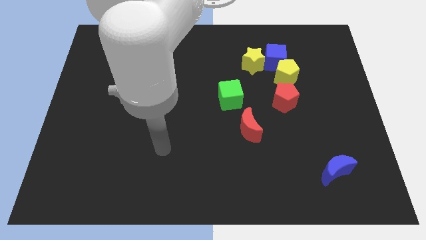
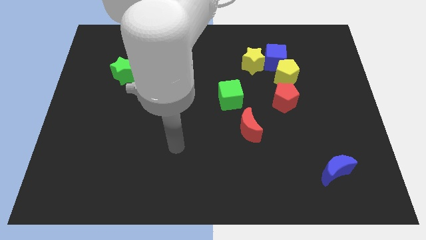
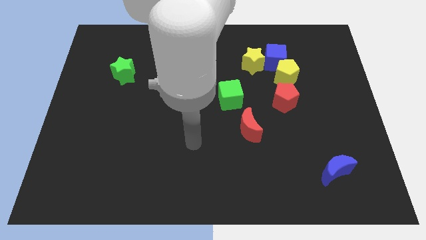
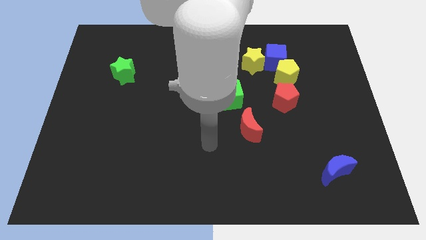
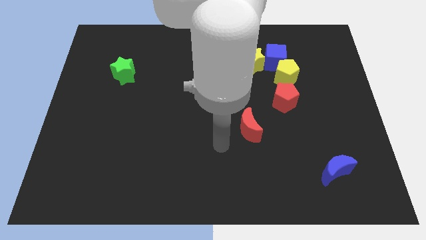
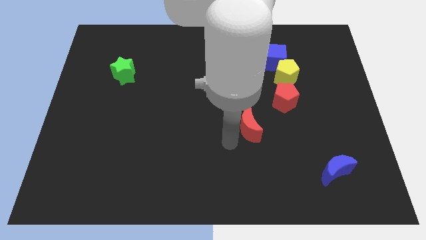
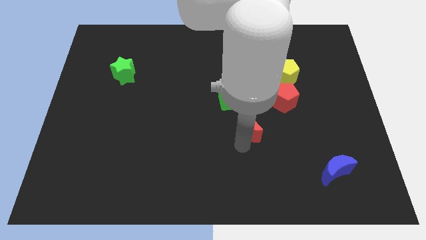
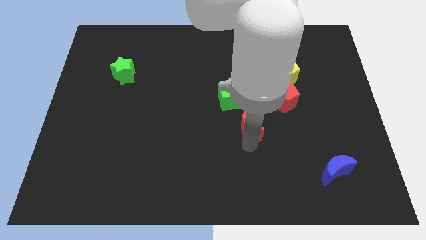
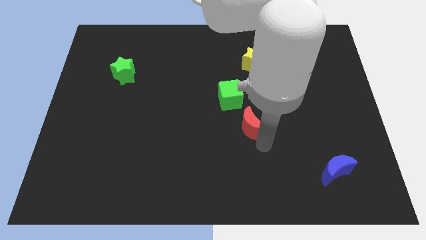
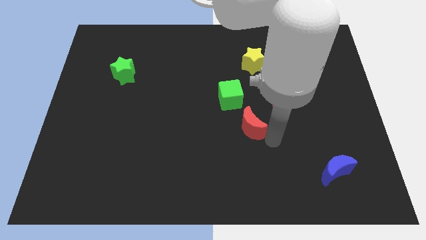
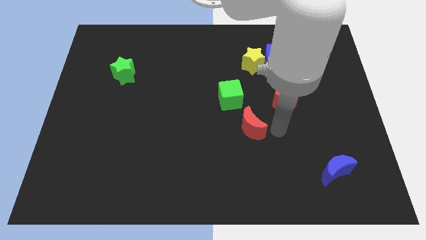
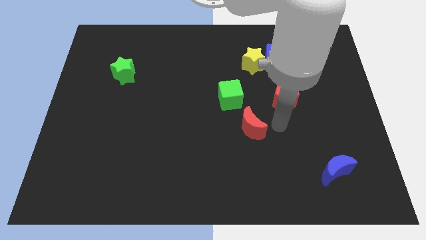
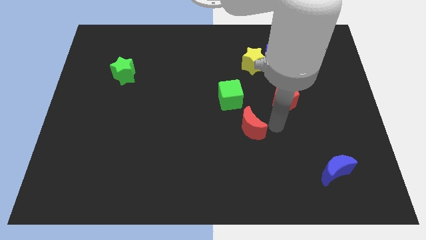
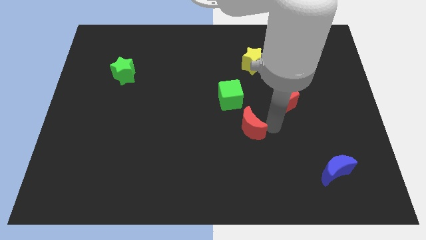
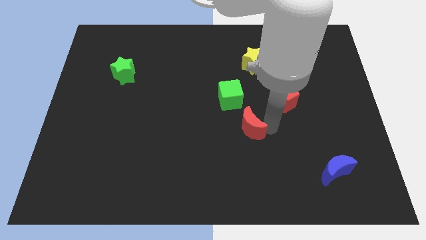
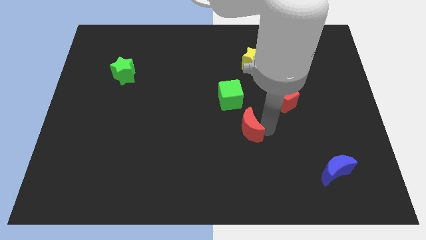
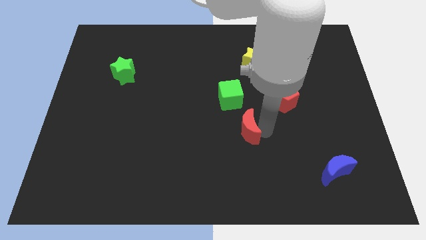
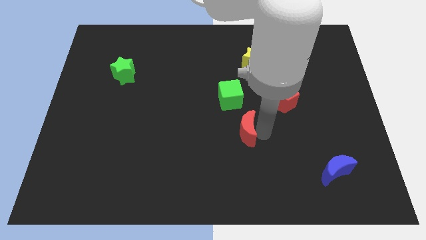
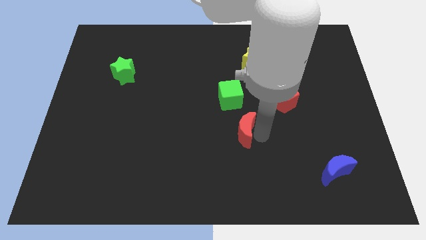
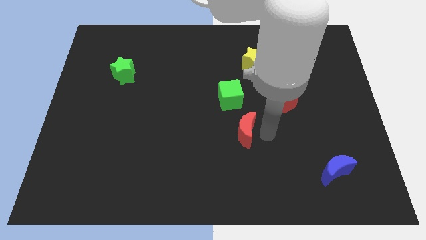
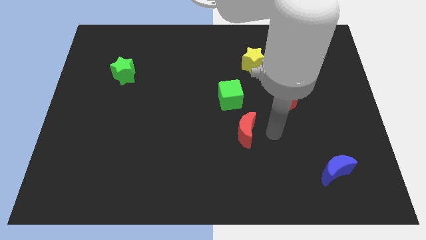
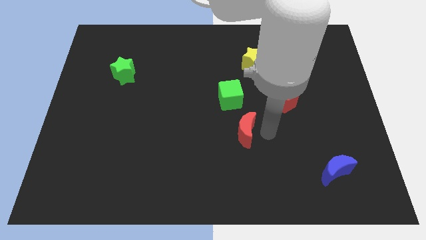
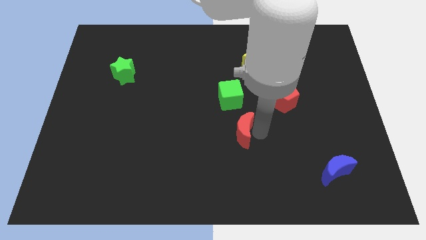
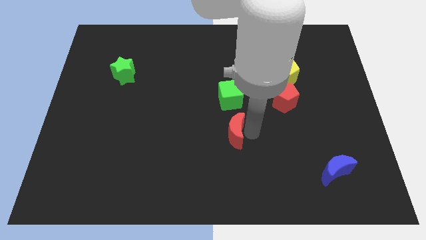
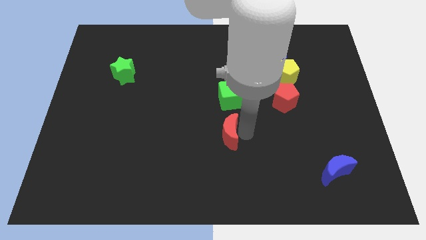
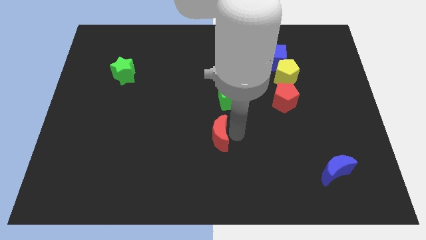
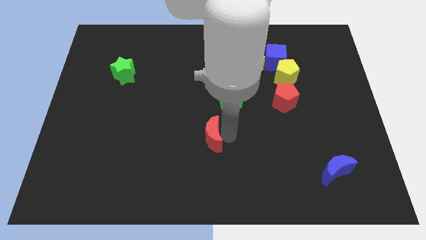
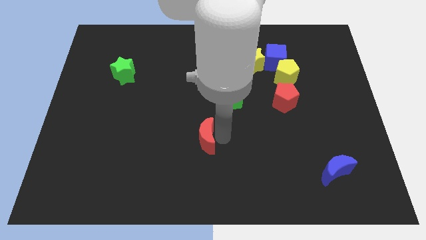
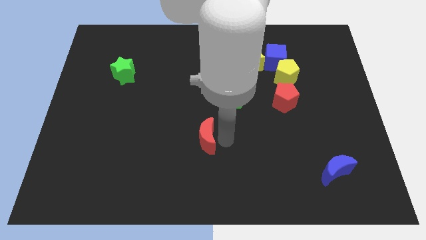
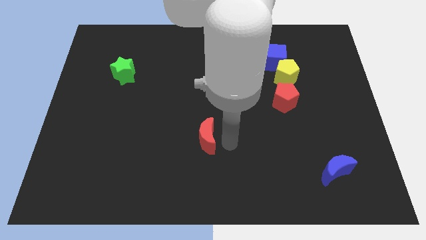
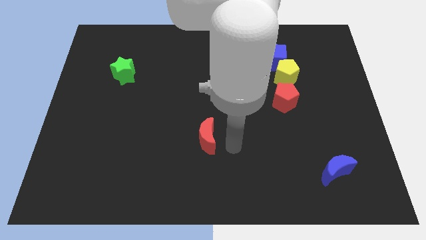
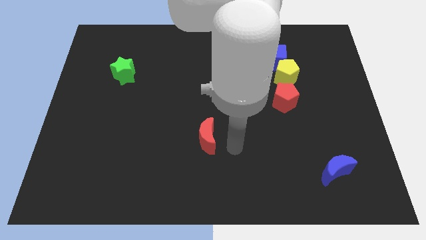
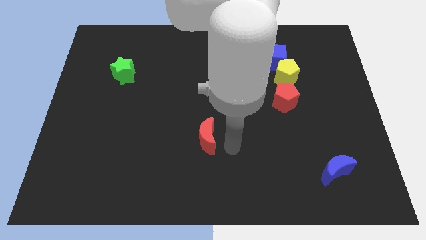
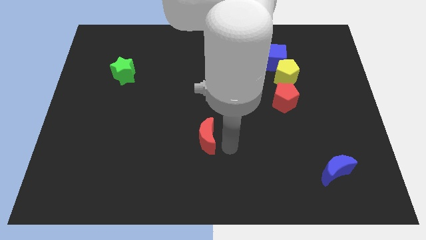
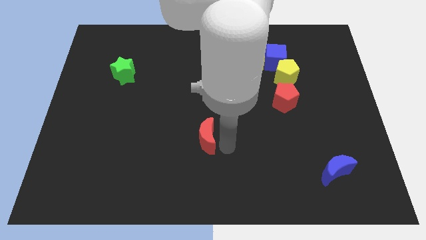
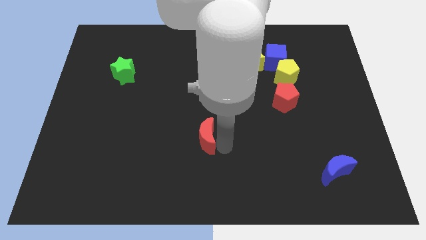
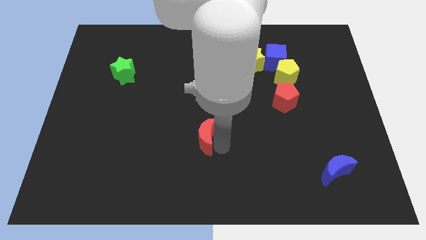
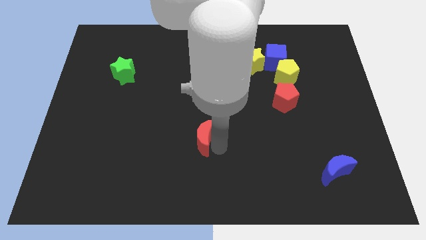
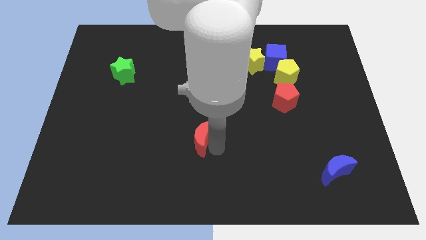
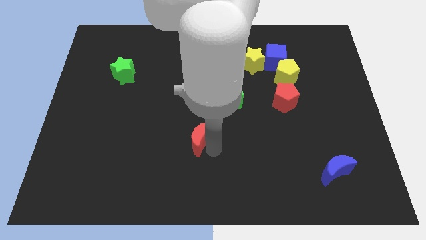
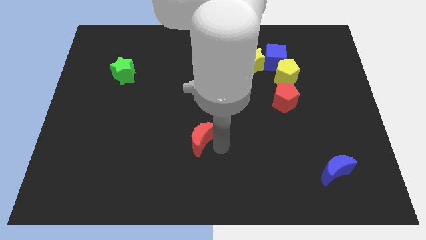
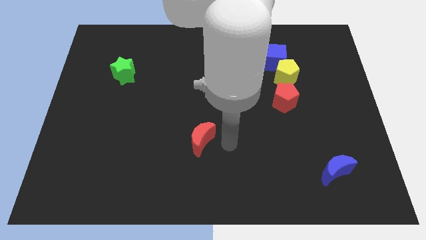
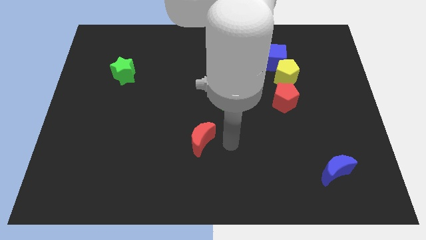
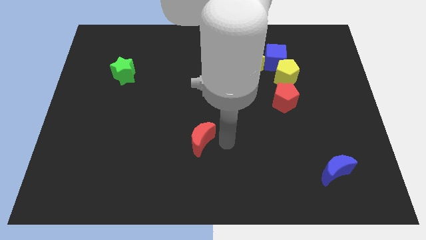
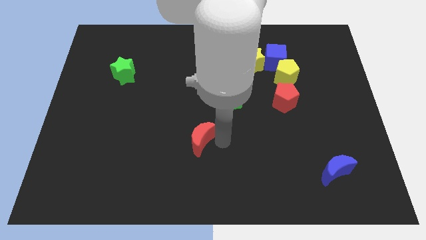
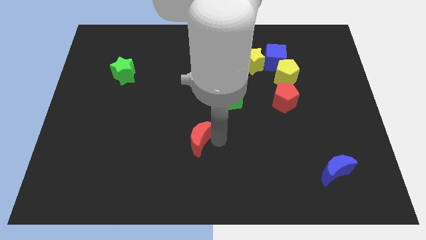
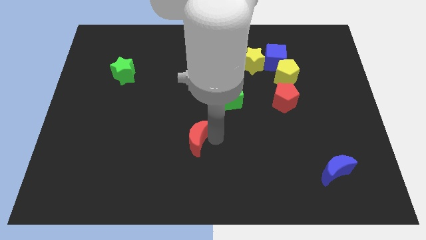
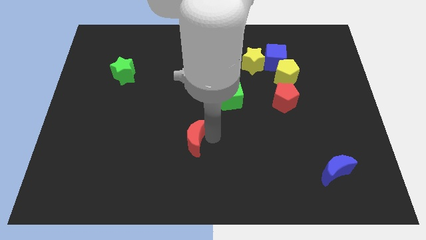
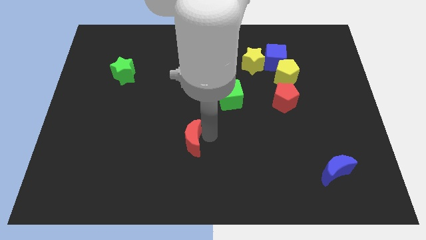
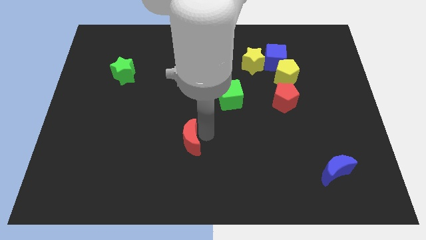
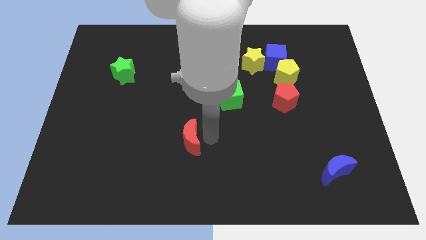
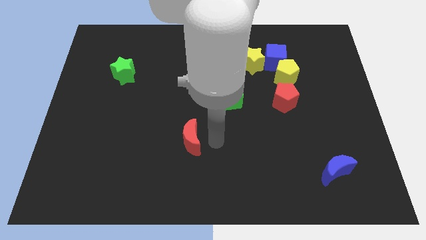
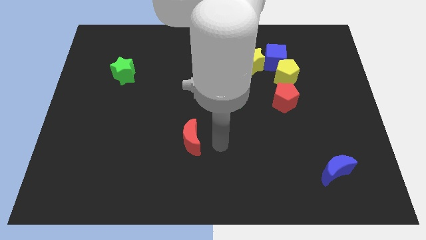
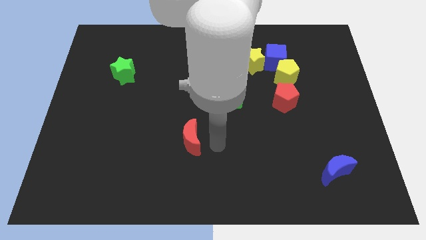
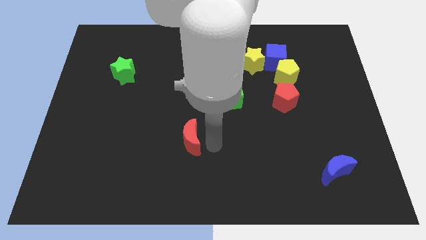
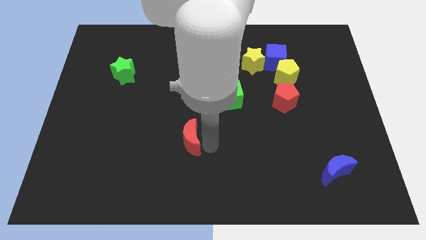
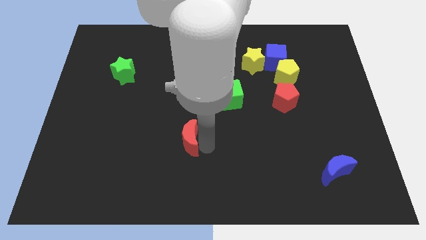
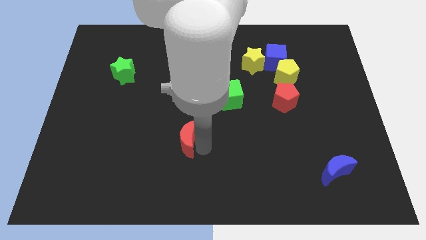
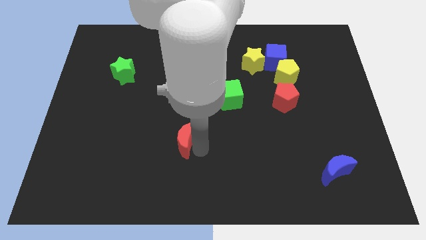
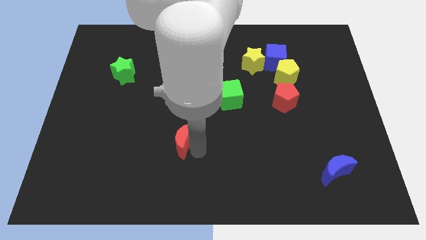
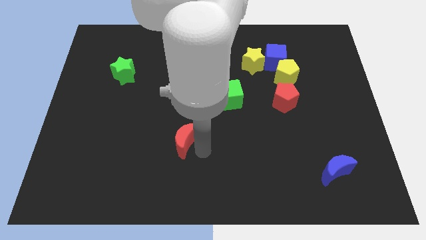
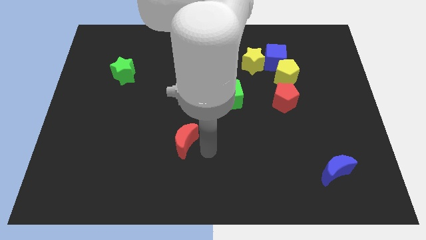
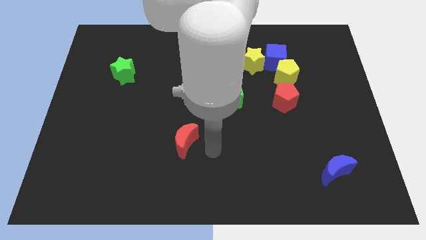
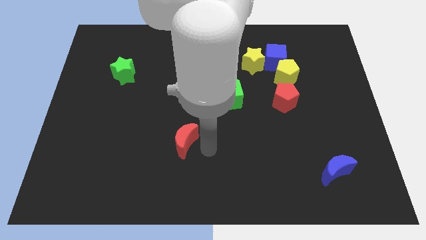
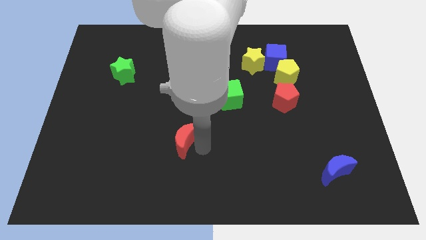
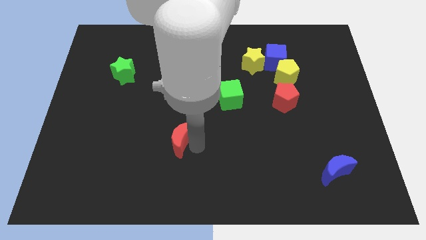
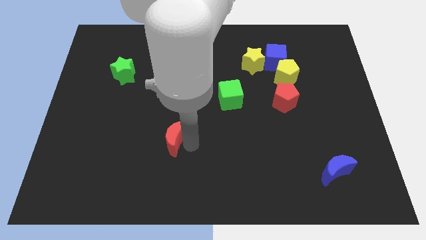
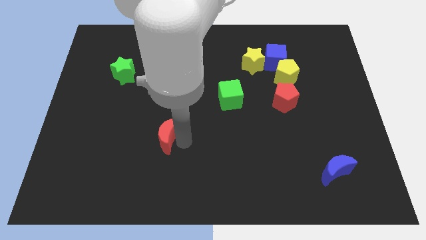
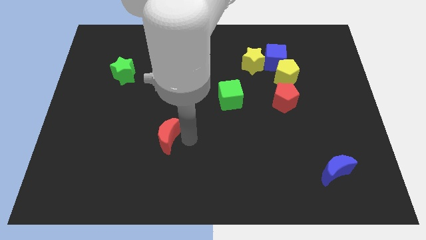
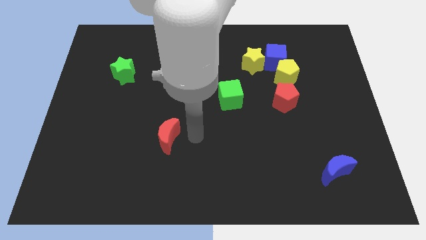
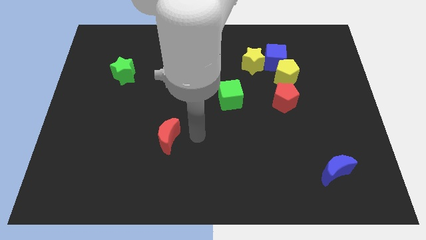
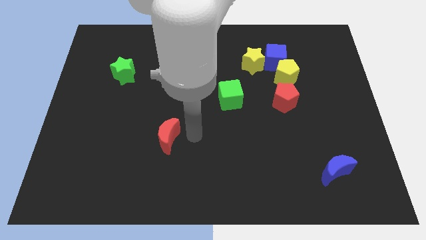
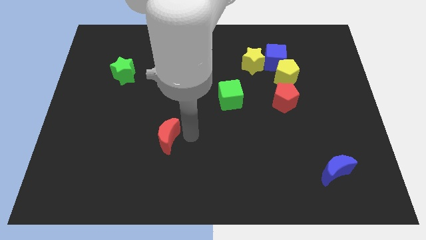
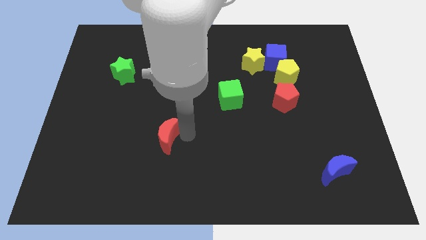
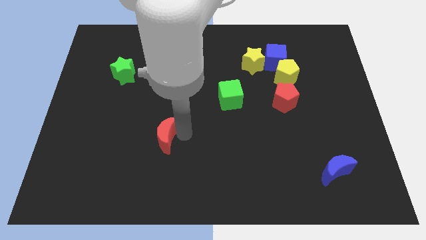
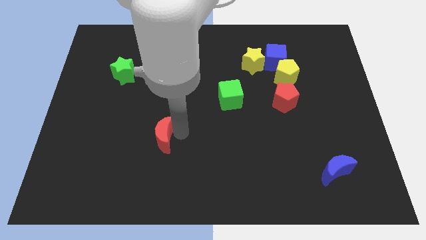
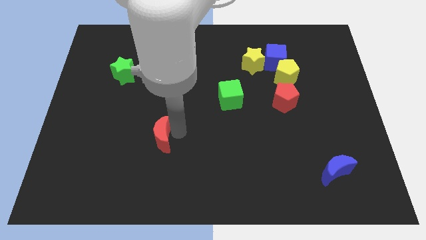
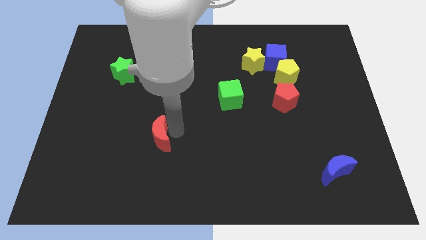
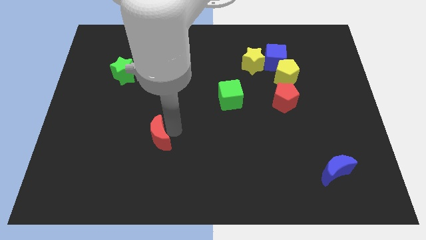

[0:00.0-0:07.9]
push the red moon left

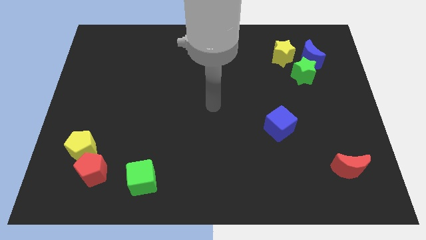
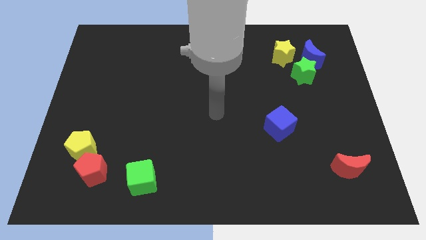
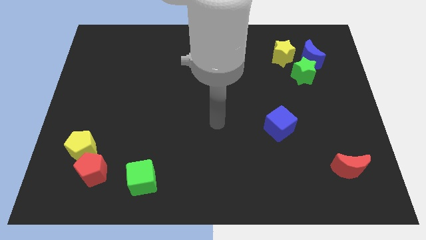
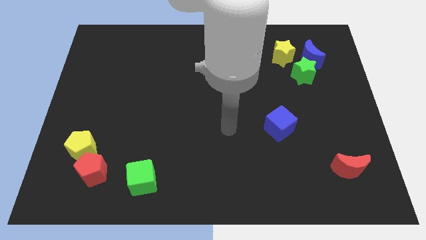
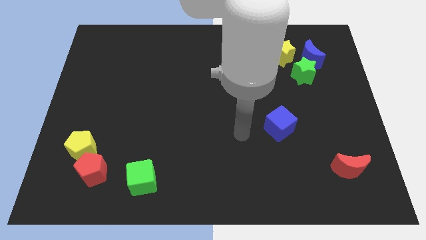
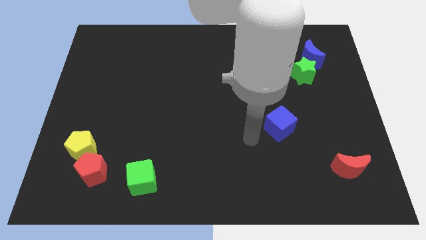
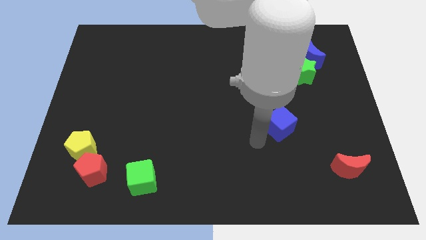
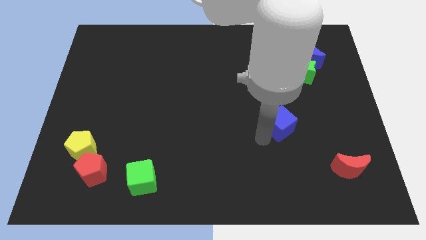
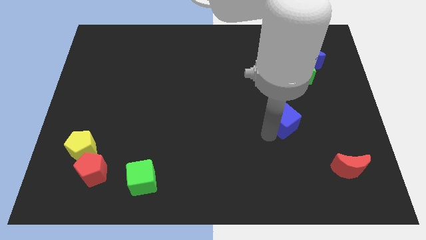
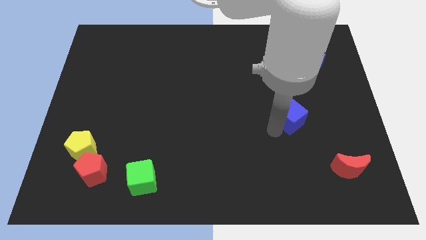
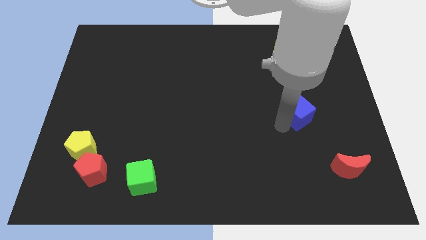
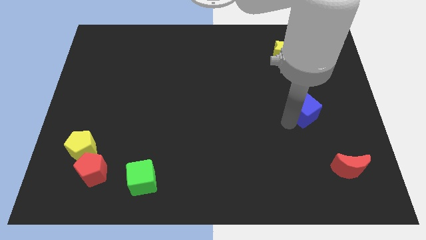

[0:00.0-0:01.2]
slide the blue cube somewhat diagonally upwards and to the right
